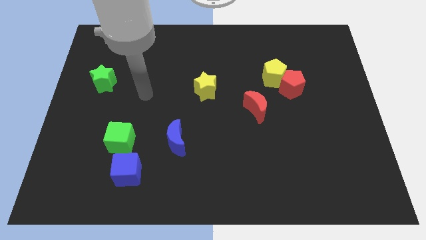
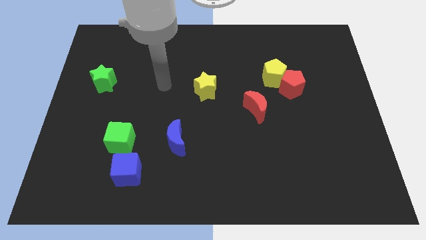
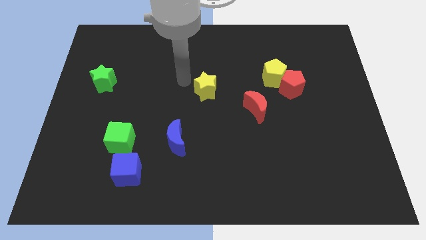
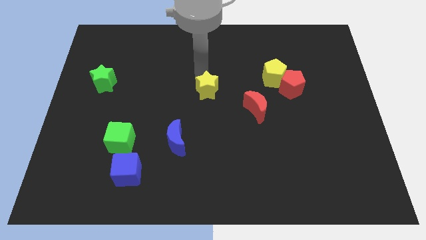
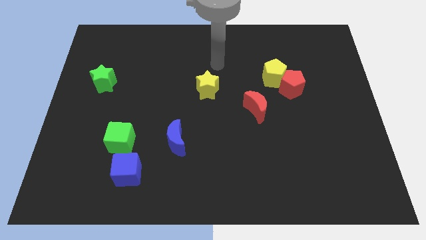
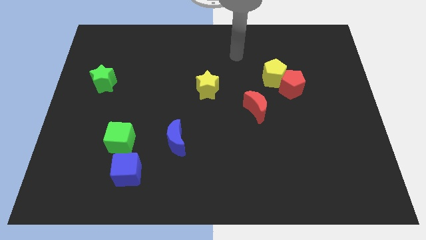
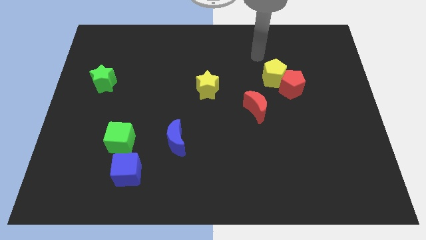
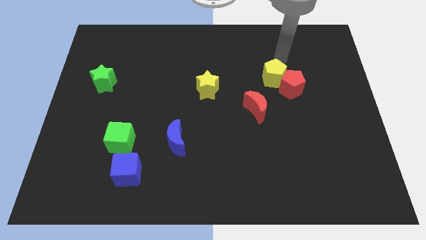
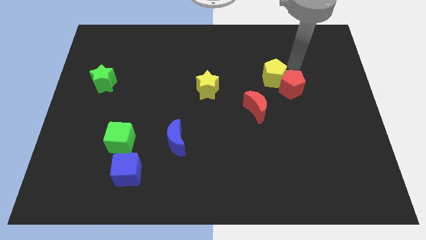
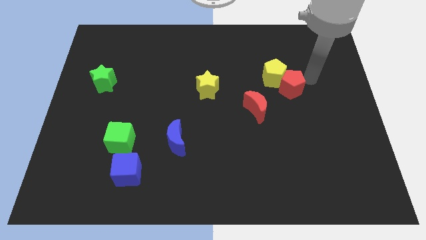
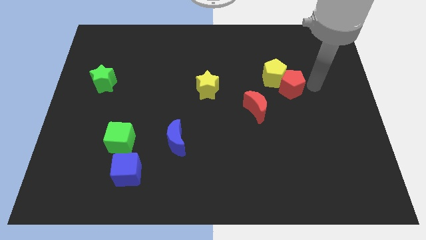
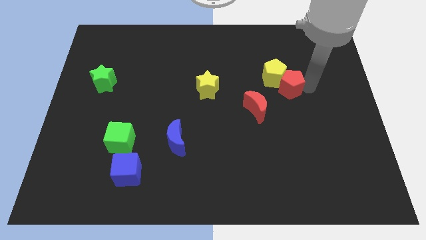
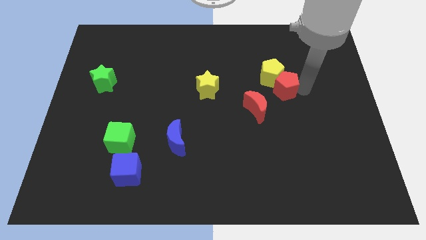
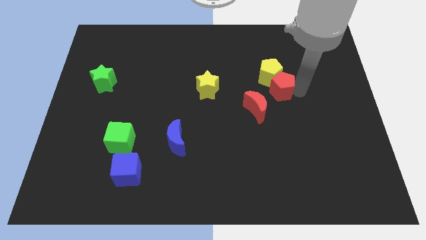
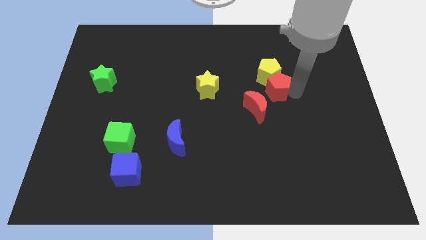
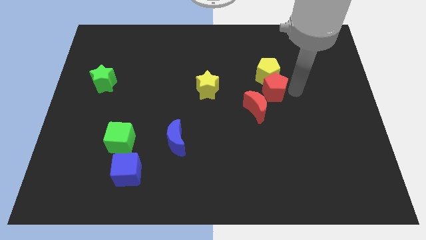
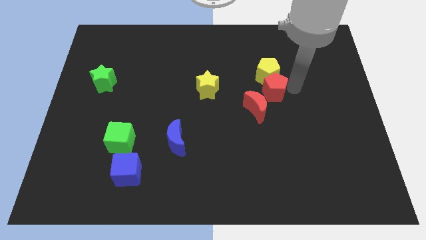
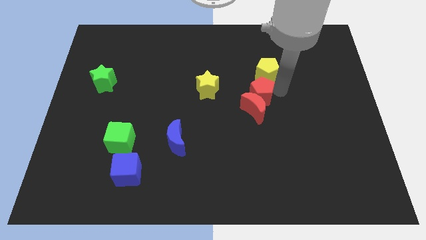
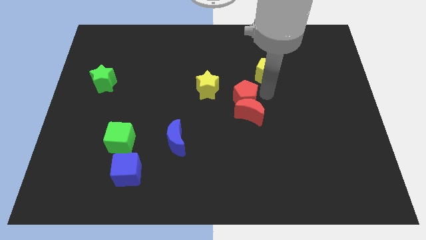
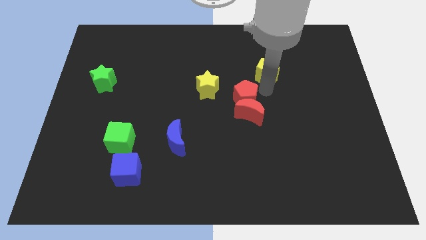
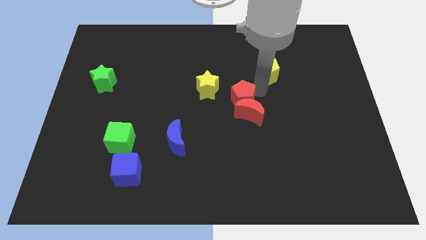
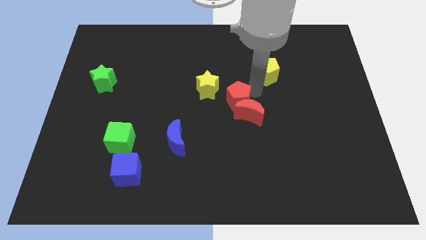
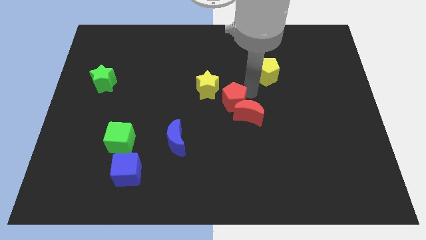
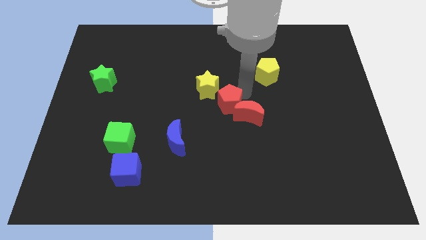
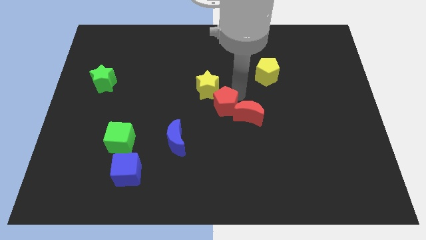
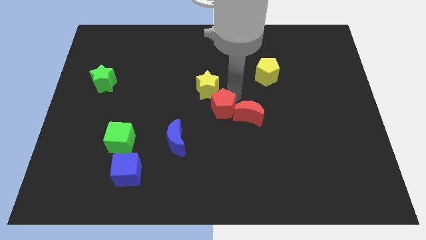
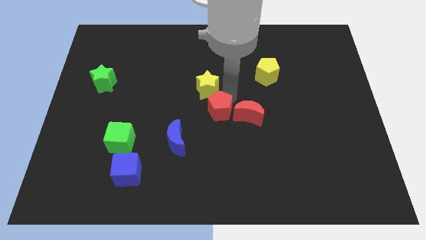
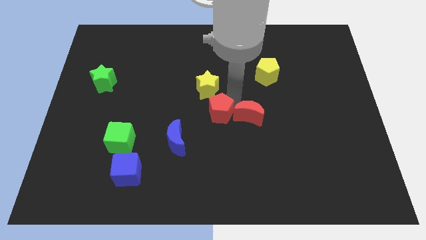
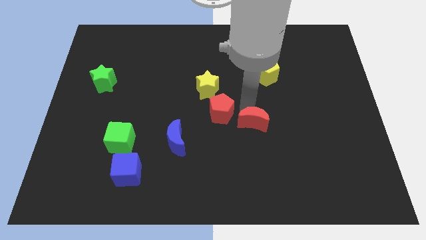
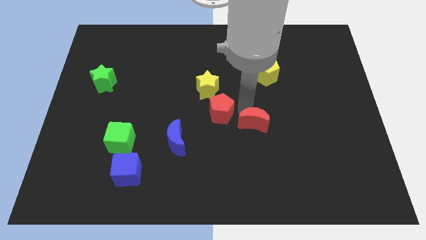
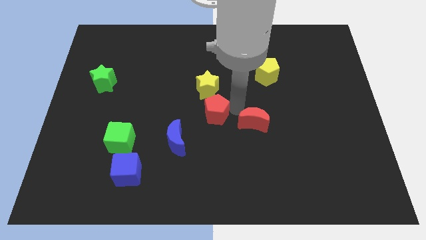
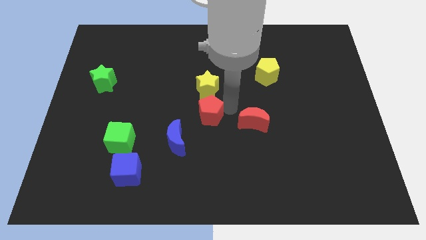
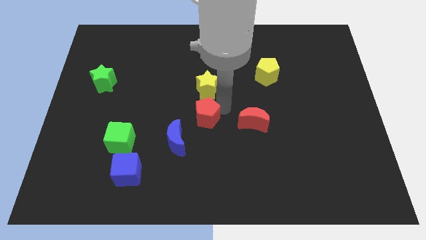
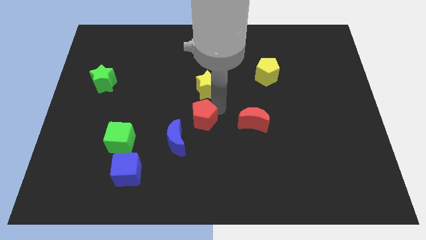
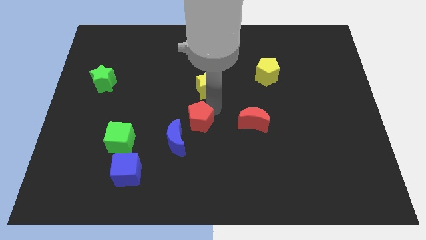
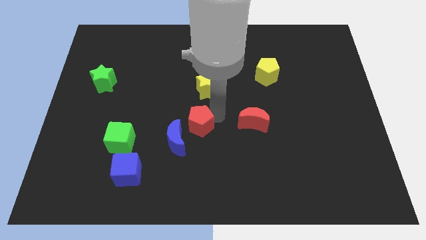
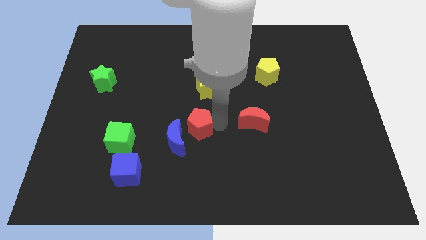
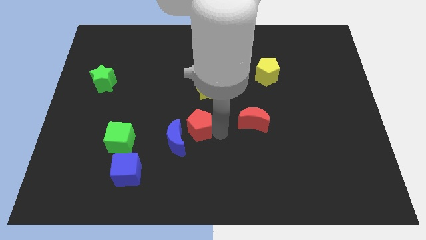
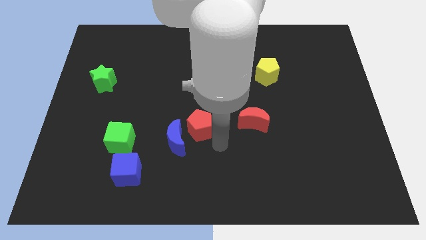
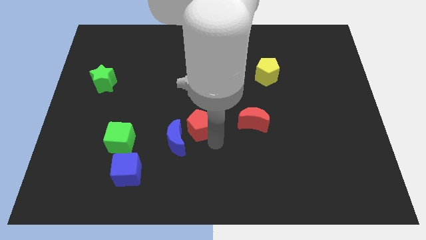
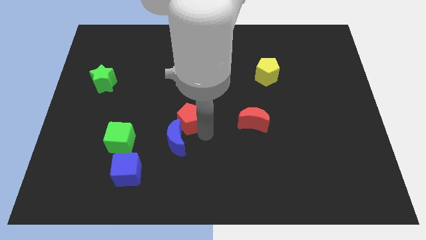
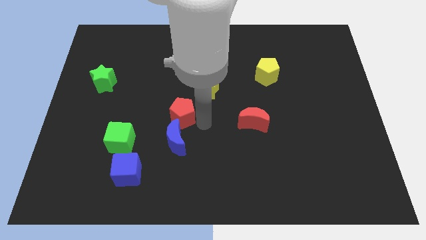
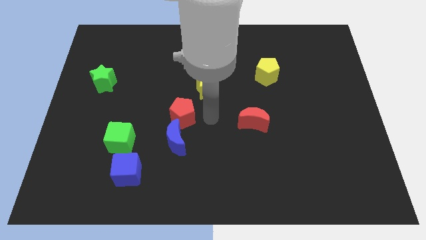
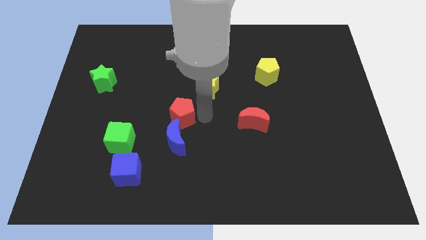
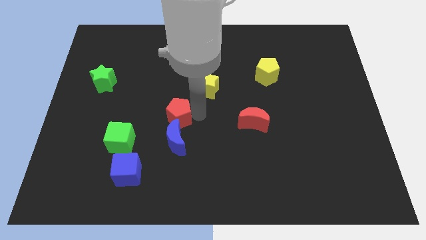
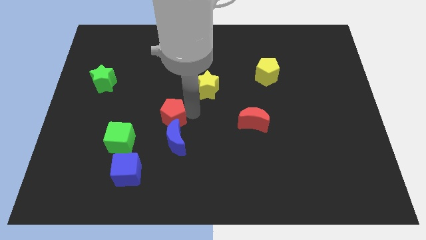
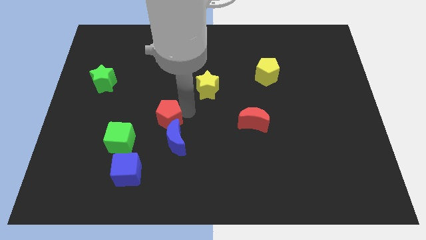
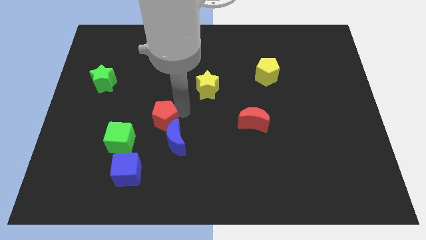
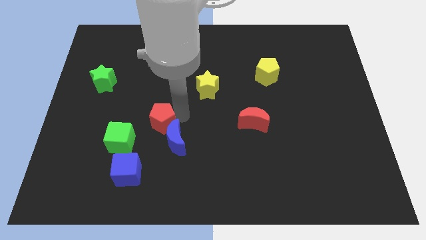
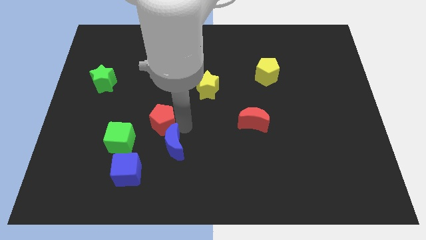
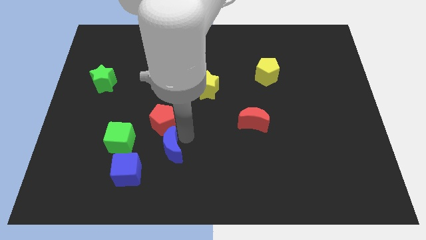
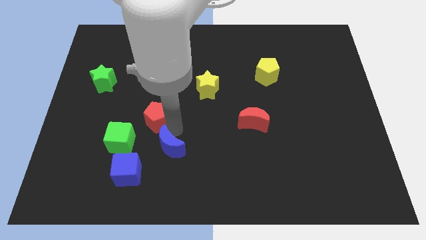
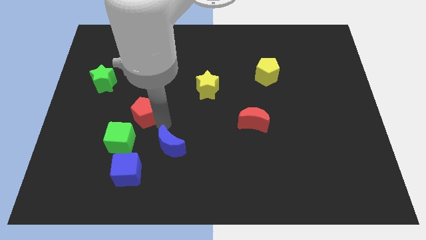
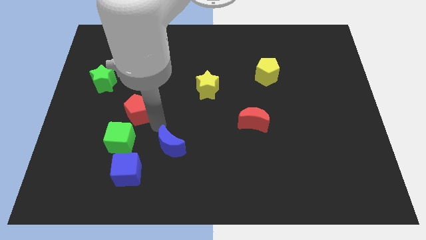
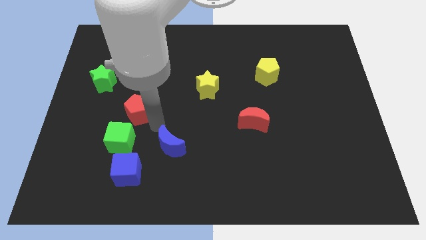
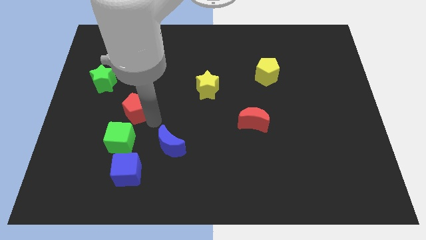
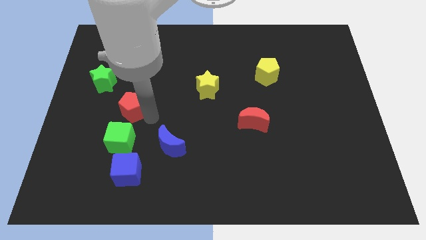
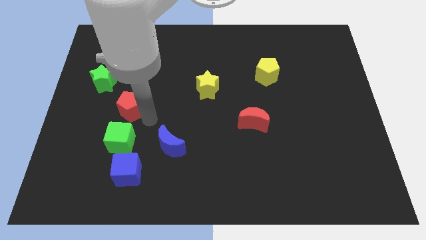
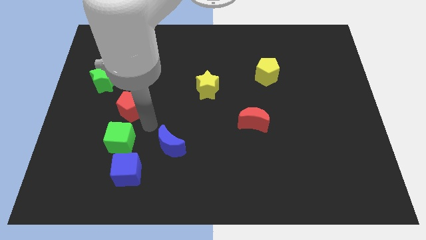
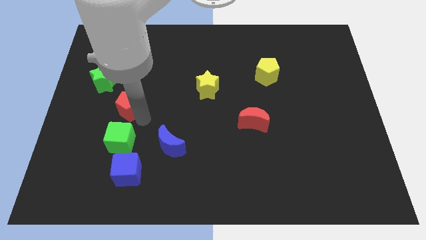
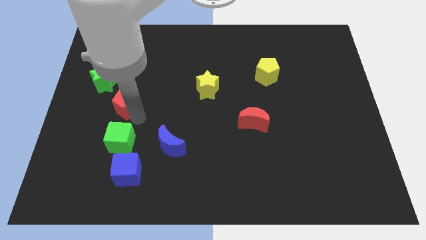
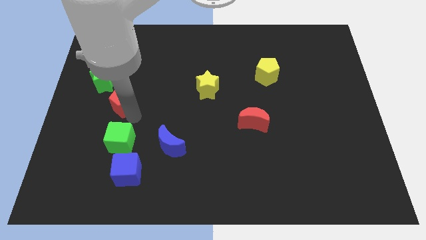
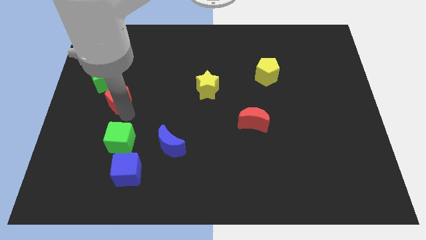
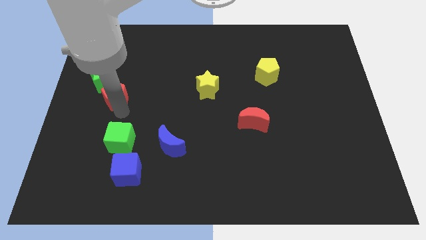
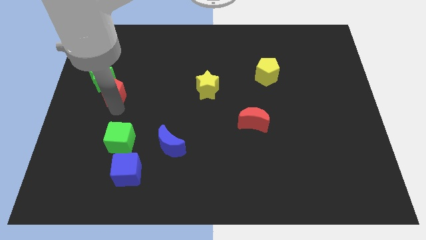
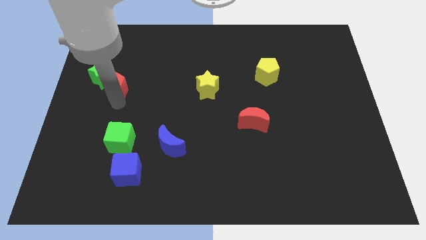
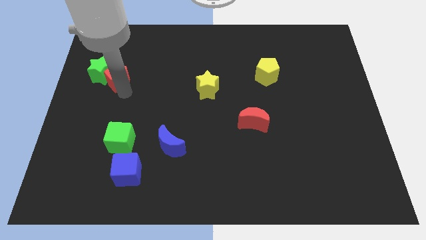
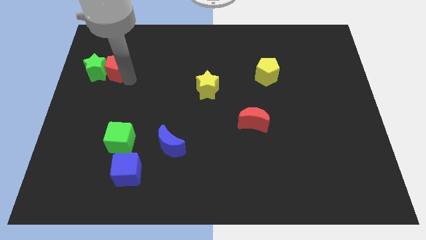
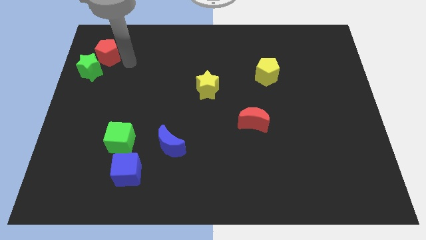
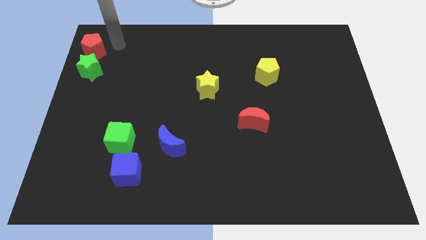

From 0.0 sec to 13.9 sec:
slide the red pentagon to the top left
